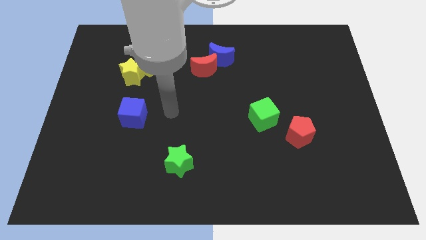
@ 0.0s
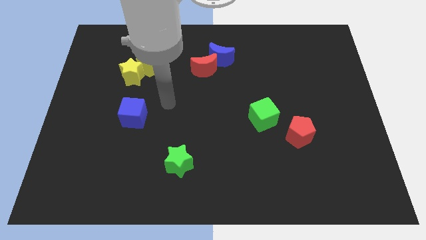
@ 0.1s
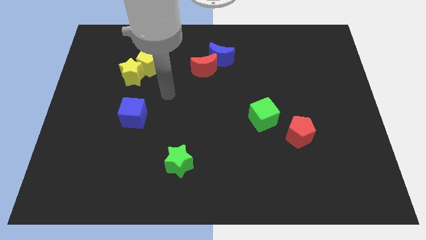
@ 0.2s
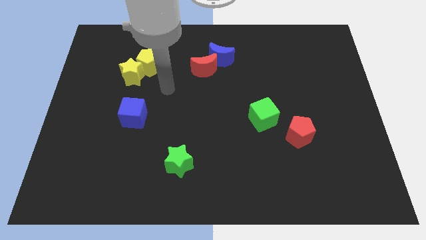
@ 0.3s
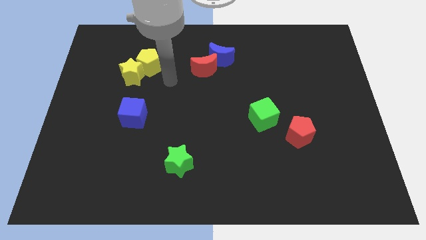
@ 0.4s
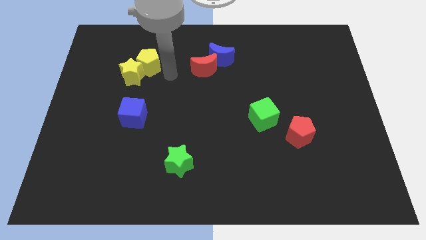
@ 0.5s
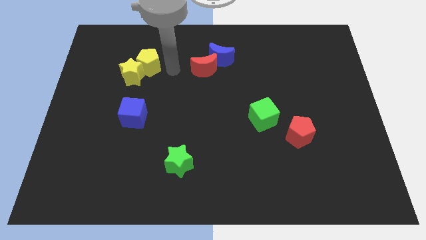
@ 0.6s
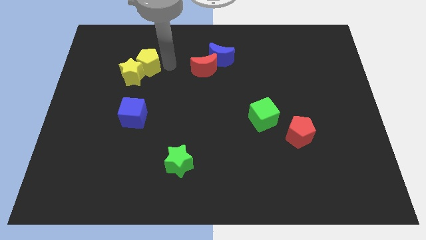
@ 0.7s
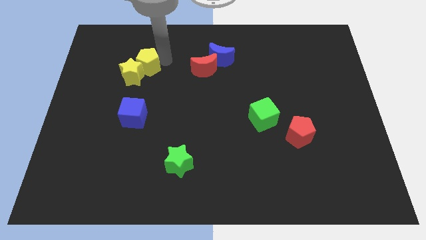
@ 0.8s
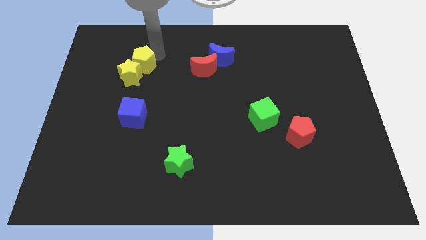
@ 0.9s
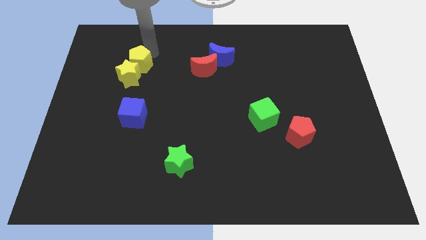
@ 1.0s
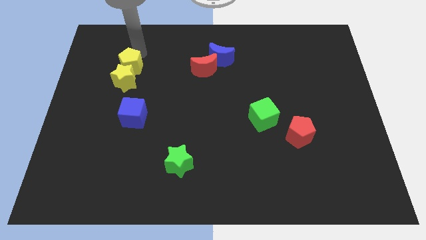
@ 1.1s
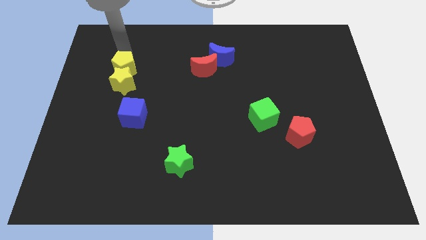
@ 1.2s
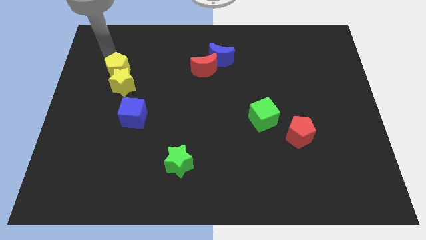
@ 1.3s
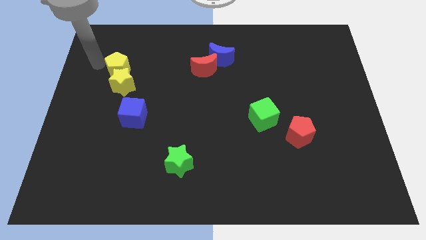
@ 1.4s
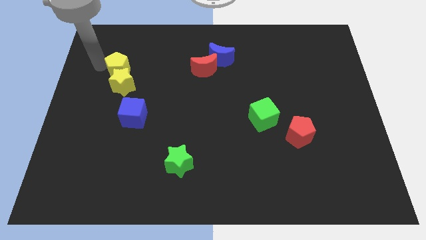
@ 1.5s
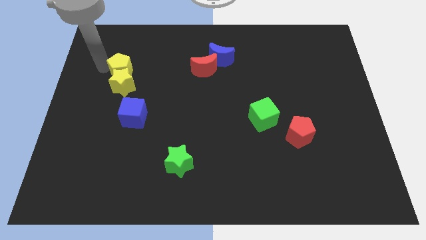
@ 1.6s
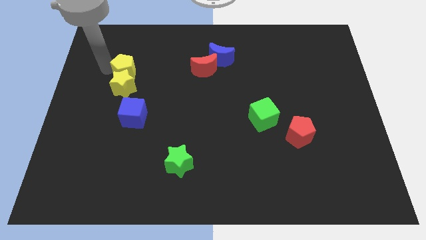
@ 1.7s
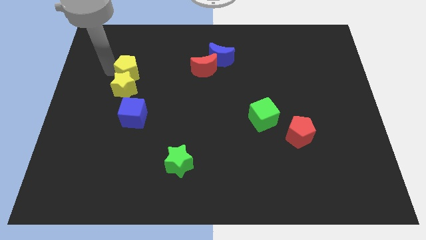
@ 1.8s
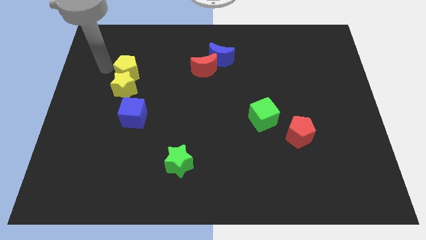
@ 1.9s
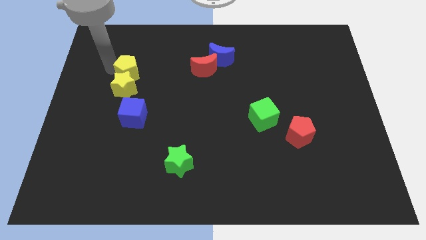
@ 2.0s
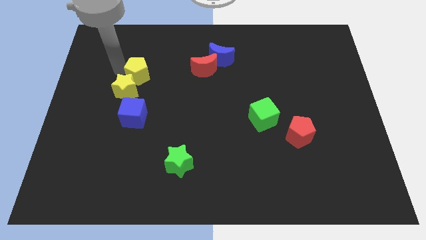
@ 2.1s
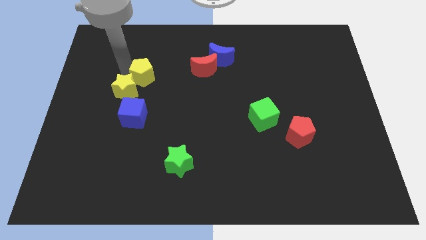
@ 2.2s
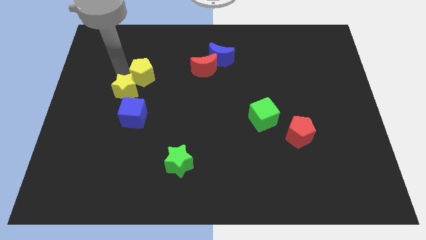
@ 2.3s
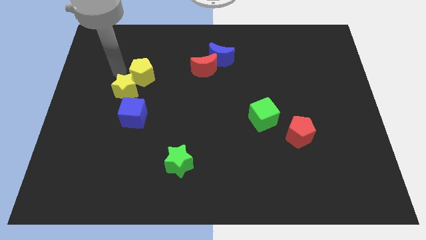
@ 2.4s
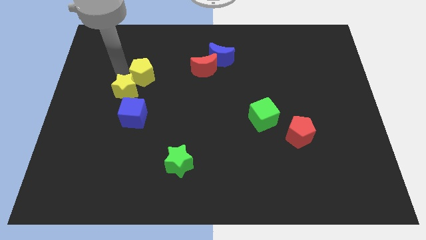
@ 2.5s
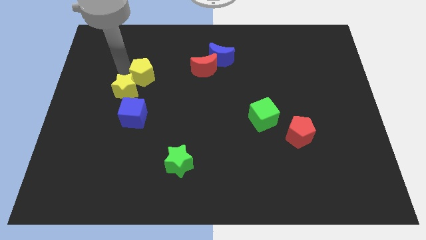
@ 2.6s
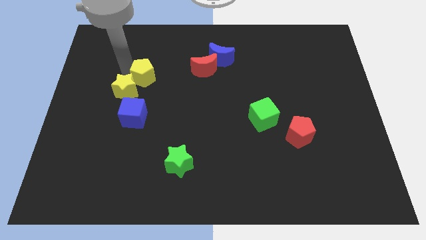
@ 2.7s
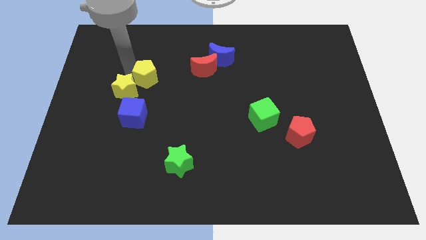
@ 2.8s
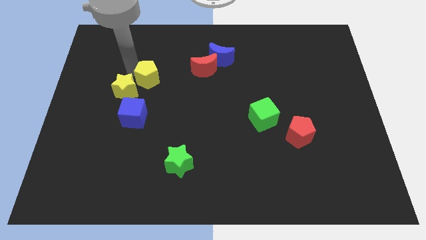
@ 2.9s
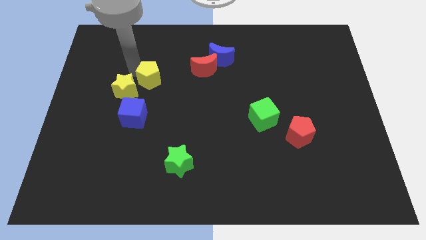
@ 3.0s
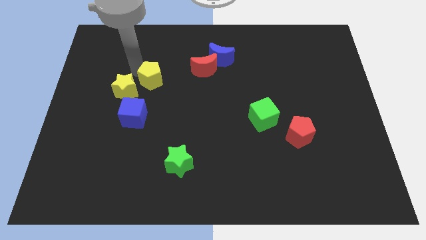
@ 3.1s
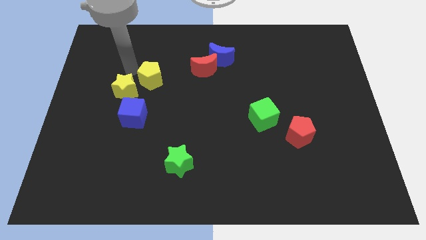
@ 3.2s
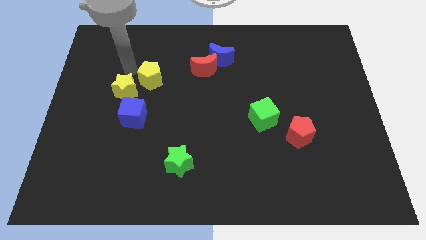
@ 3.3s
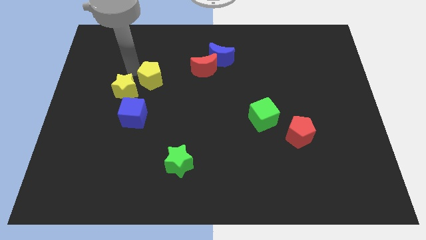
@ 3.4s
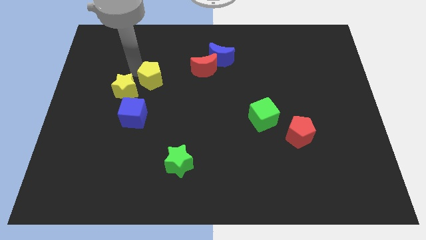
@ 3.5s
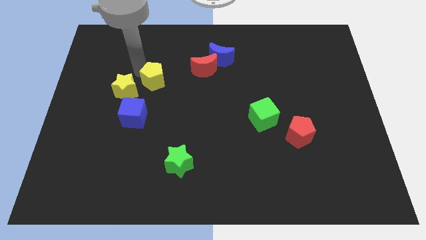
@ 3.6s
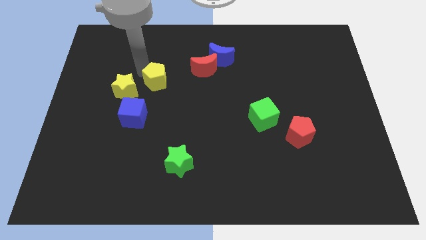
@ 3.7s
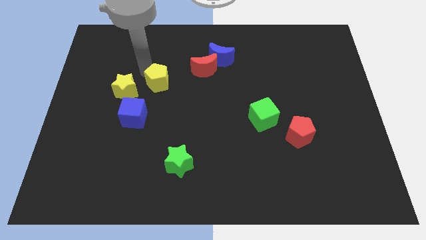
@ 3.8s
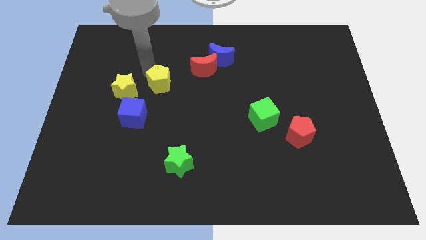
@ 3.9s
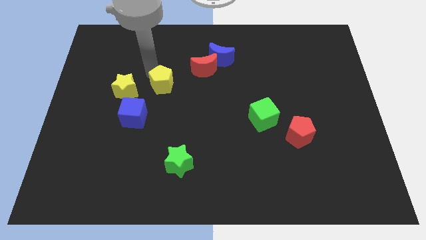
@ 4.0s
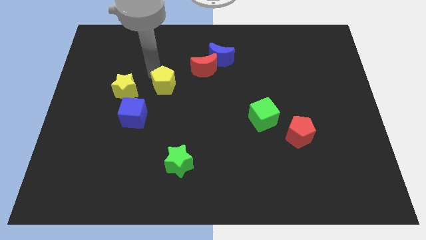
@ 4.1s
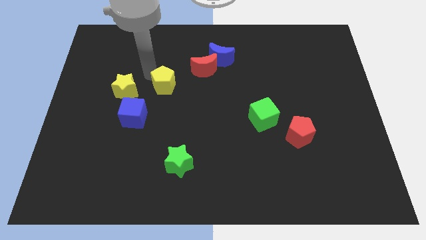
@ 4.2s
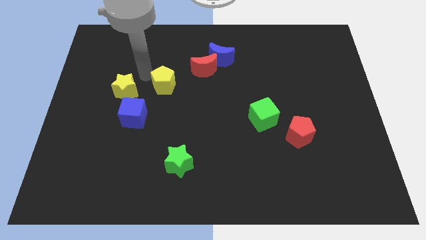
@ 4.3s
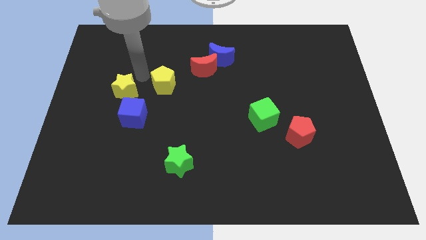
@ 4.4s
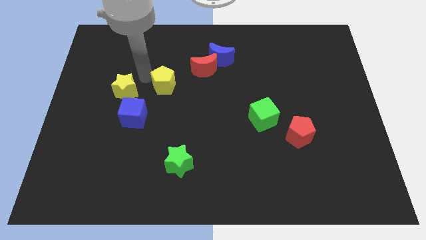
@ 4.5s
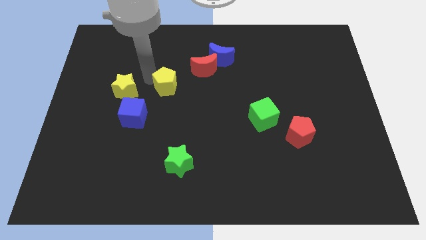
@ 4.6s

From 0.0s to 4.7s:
push the yellow pentagon to the middle of the board

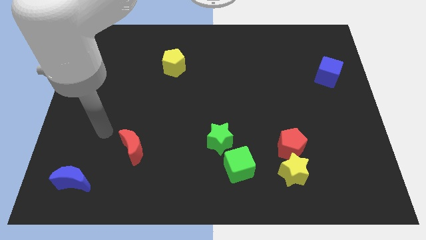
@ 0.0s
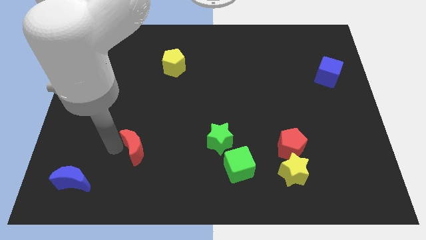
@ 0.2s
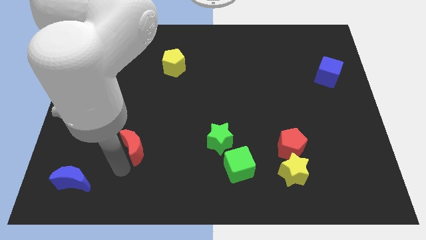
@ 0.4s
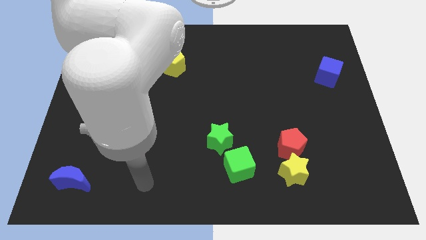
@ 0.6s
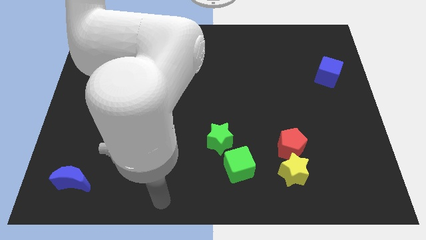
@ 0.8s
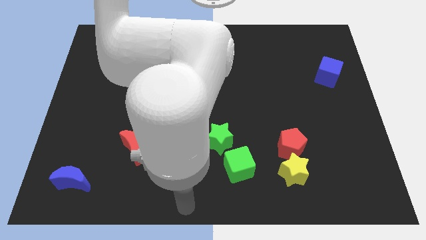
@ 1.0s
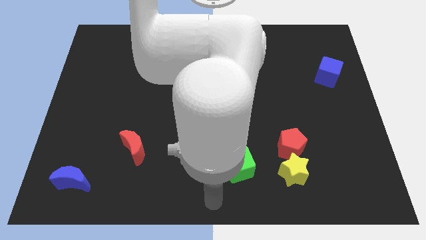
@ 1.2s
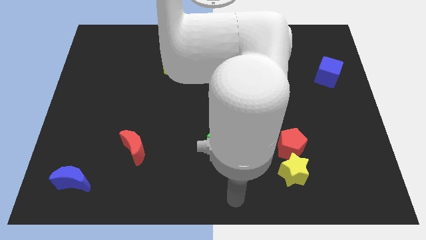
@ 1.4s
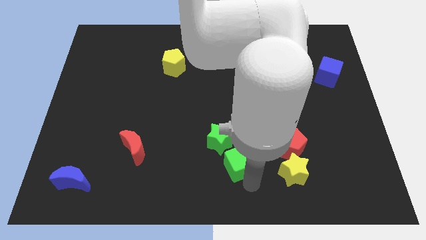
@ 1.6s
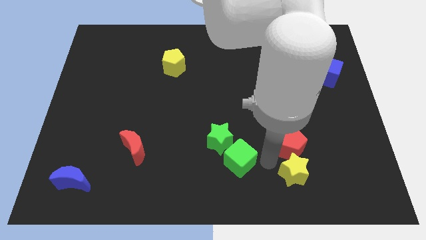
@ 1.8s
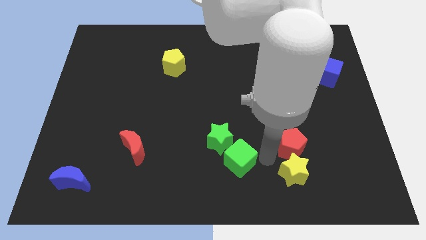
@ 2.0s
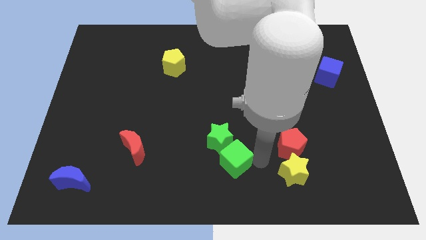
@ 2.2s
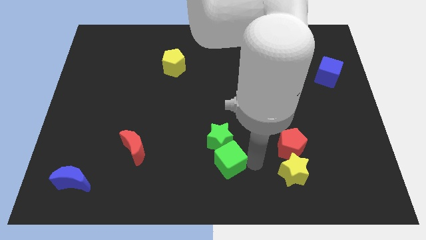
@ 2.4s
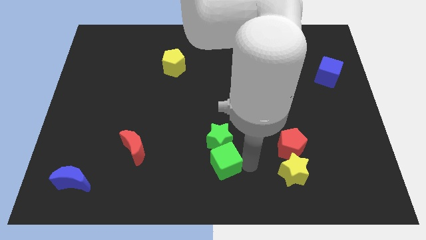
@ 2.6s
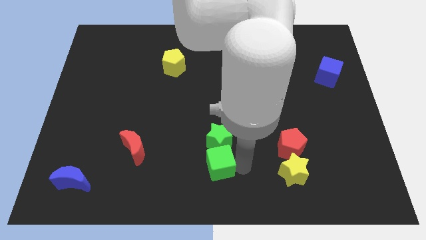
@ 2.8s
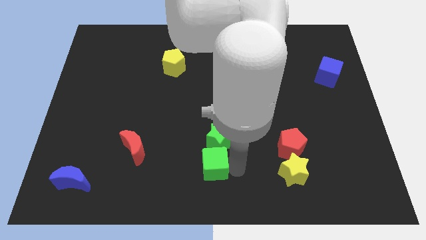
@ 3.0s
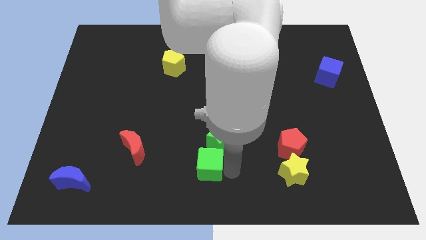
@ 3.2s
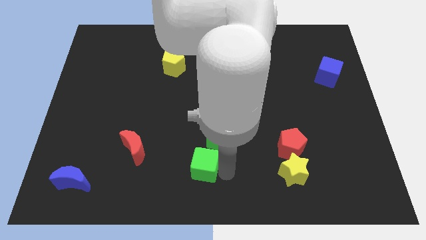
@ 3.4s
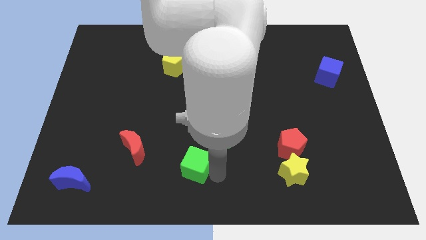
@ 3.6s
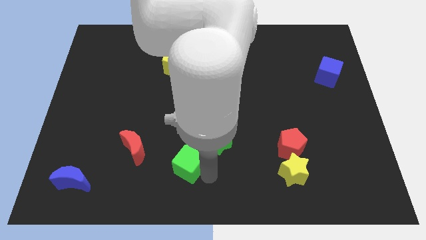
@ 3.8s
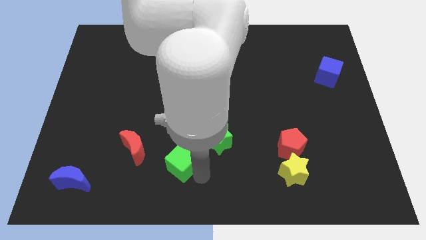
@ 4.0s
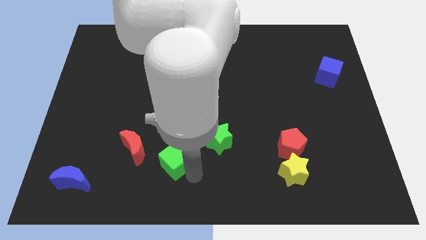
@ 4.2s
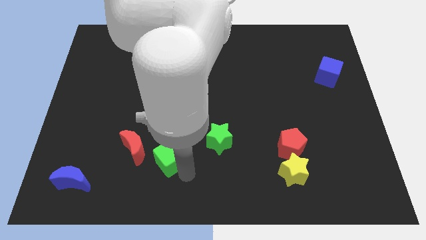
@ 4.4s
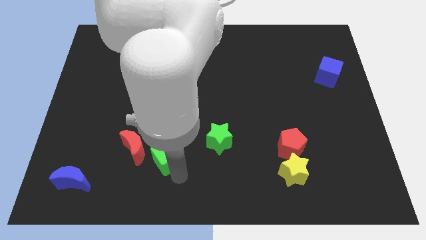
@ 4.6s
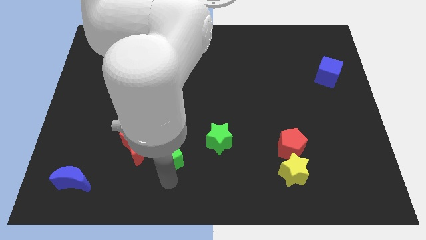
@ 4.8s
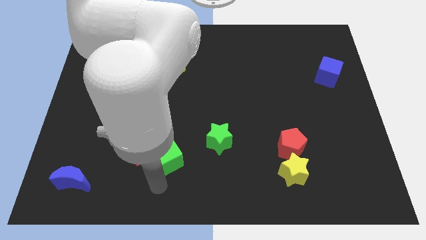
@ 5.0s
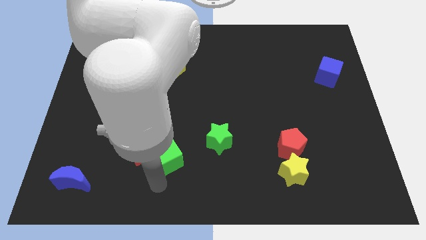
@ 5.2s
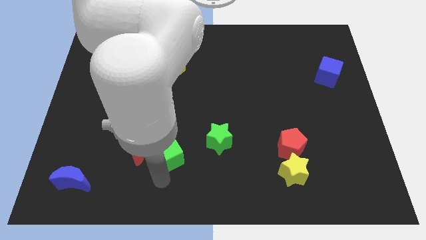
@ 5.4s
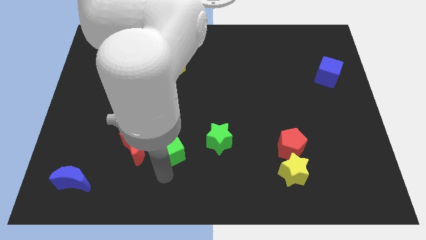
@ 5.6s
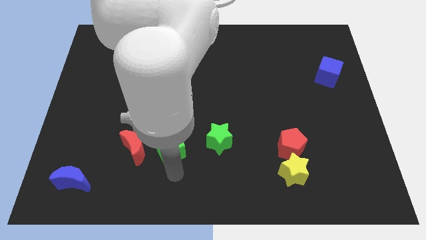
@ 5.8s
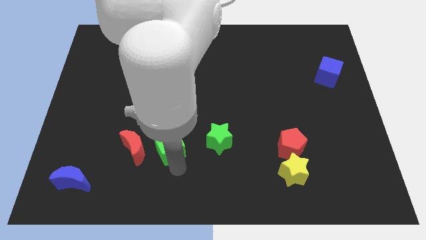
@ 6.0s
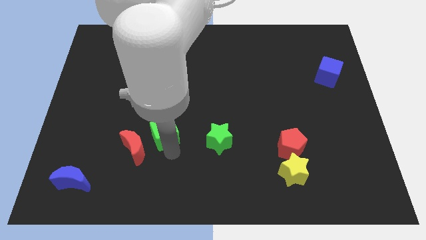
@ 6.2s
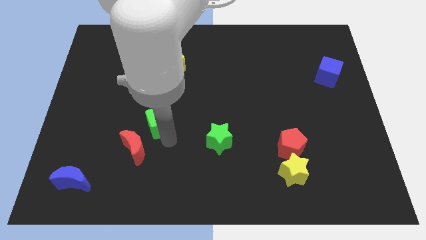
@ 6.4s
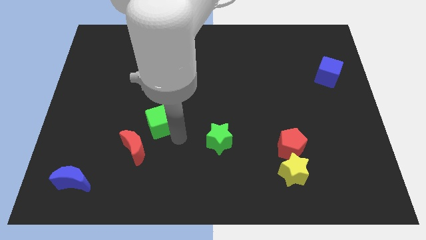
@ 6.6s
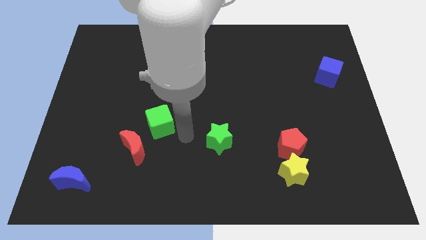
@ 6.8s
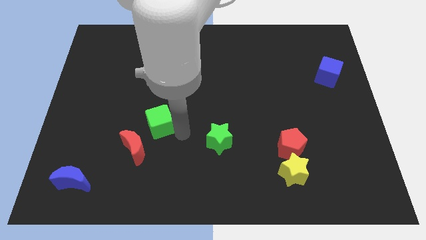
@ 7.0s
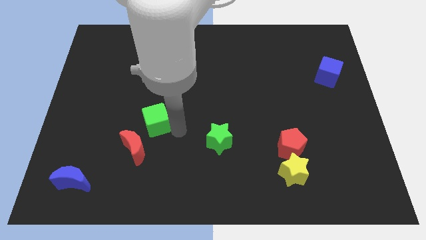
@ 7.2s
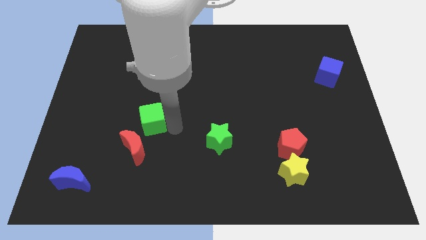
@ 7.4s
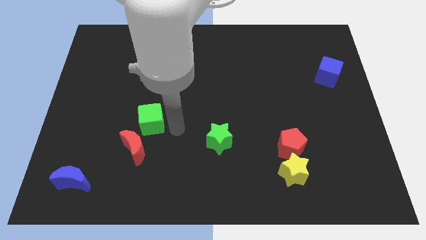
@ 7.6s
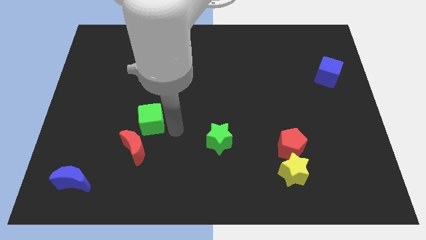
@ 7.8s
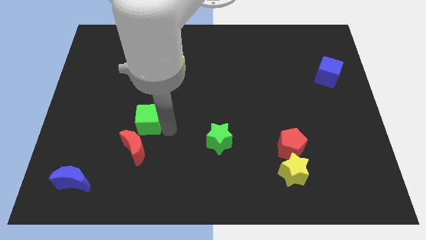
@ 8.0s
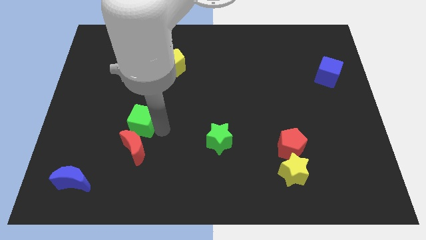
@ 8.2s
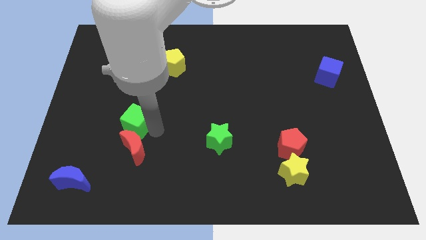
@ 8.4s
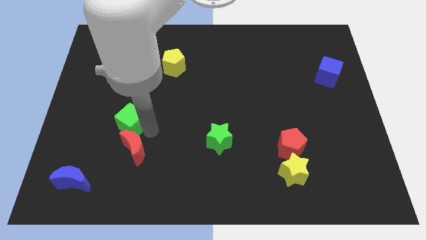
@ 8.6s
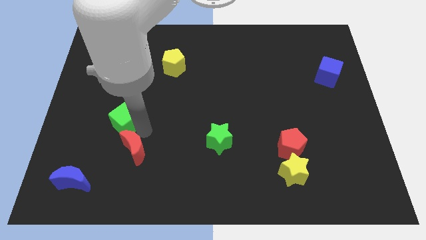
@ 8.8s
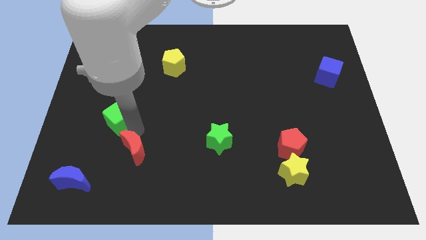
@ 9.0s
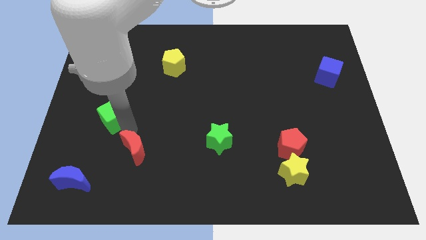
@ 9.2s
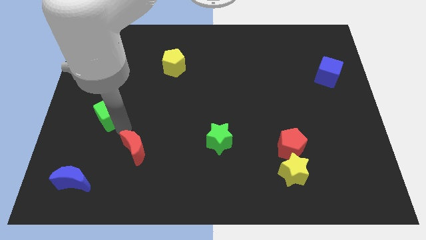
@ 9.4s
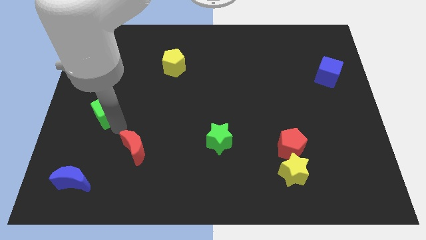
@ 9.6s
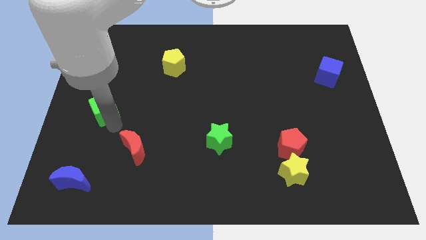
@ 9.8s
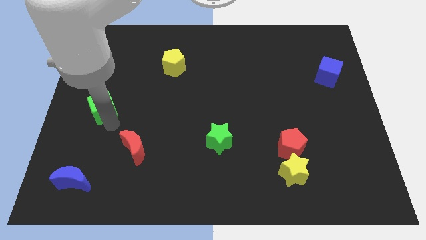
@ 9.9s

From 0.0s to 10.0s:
move the green cube to the center left
